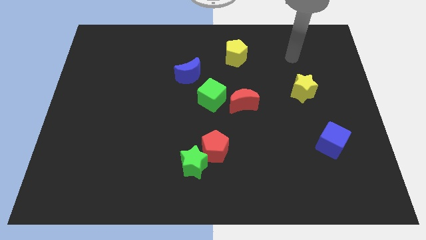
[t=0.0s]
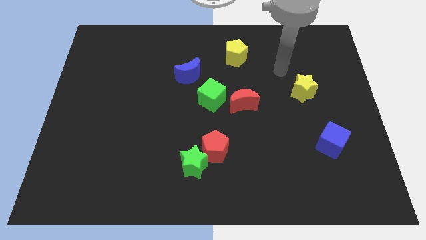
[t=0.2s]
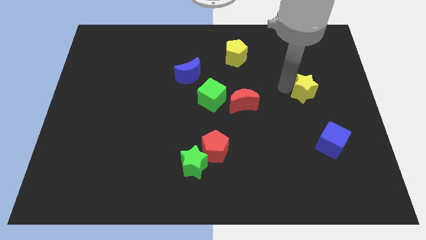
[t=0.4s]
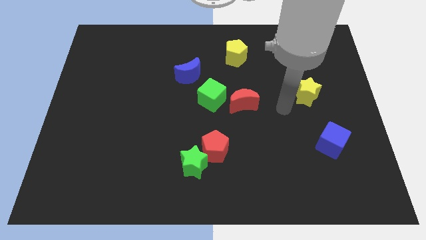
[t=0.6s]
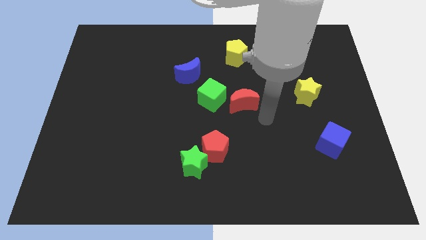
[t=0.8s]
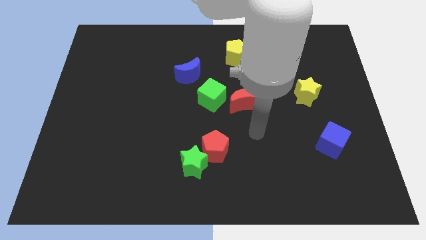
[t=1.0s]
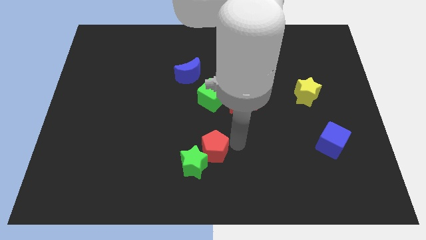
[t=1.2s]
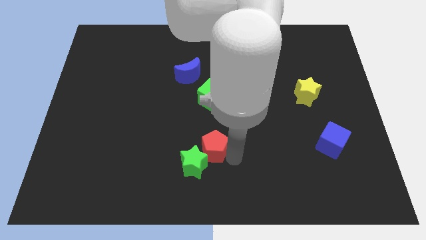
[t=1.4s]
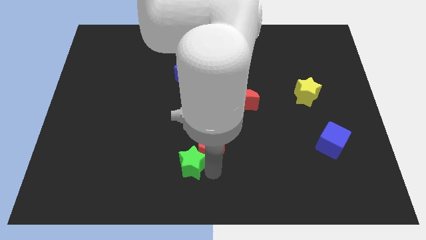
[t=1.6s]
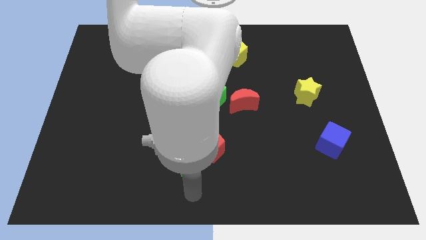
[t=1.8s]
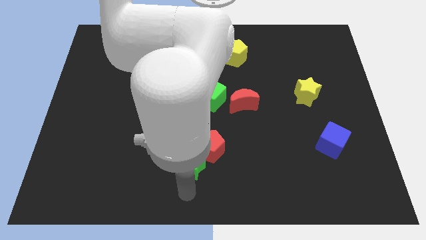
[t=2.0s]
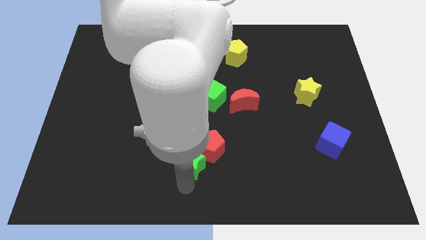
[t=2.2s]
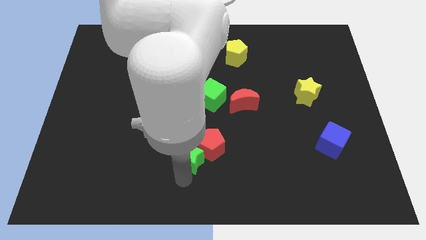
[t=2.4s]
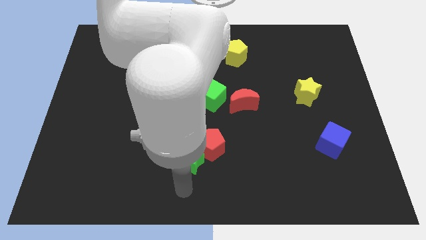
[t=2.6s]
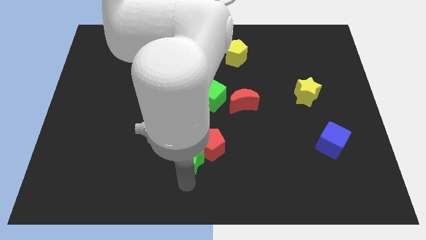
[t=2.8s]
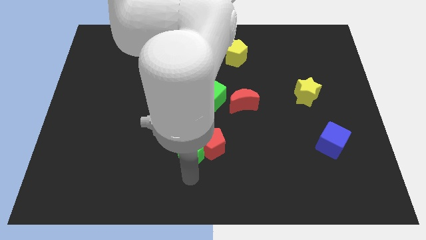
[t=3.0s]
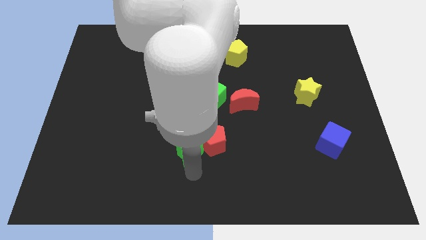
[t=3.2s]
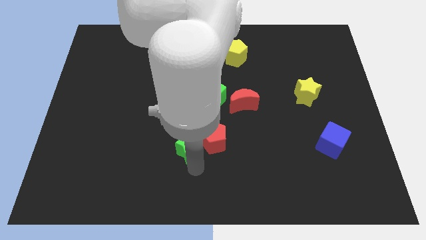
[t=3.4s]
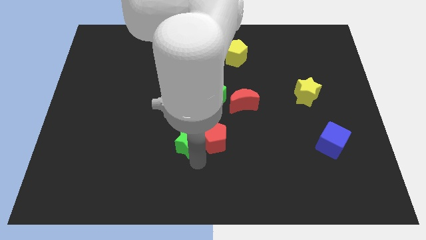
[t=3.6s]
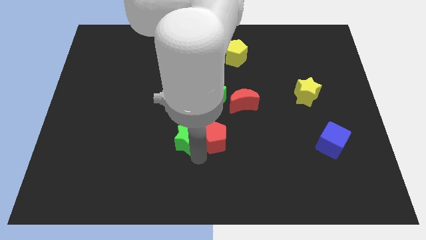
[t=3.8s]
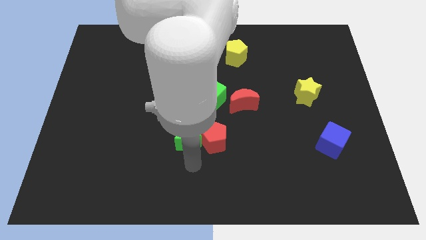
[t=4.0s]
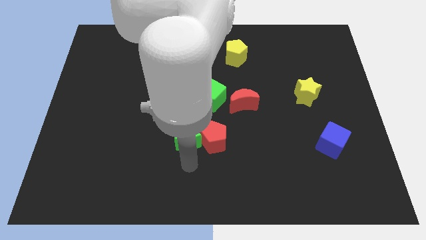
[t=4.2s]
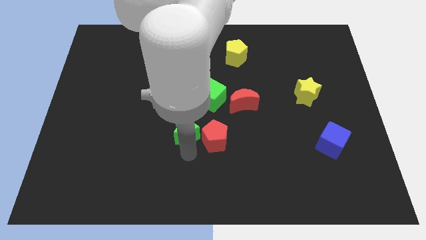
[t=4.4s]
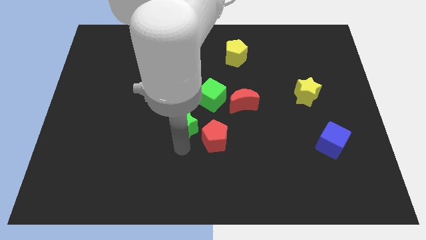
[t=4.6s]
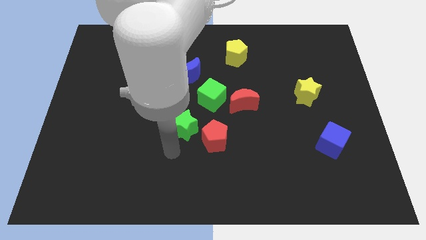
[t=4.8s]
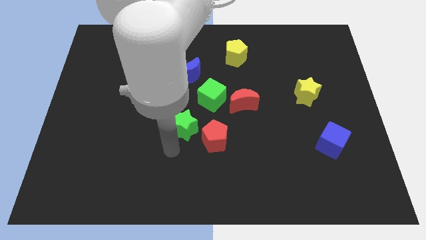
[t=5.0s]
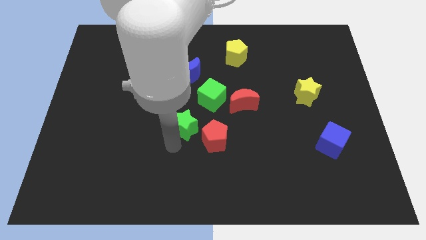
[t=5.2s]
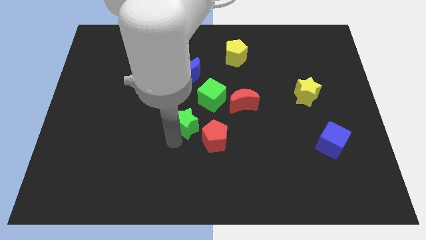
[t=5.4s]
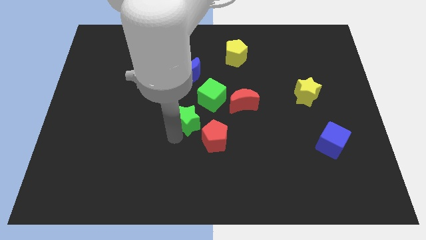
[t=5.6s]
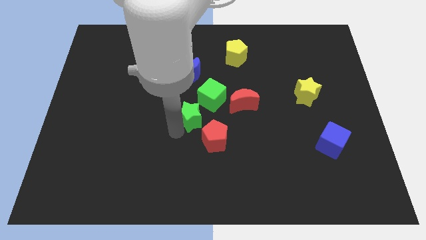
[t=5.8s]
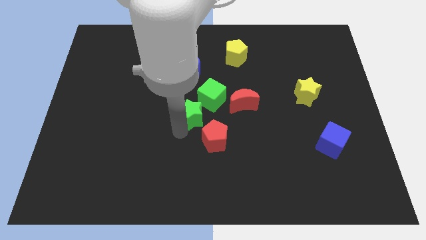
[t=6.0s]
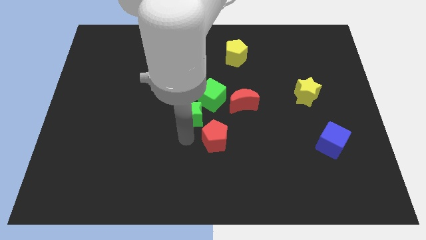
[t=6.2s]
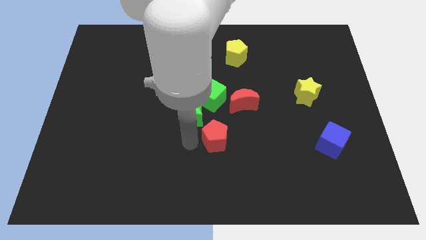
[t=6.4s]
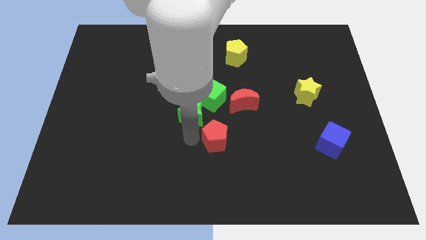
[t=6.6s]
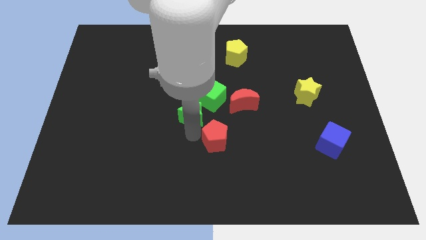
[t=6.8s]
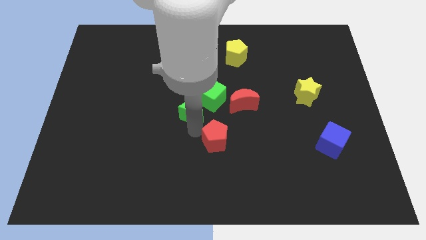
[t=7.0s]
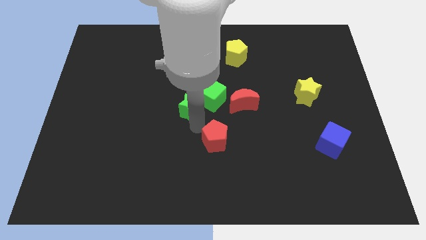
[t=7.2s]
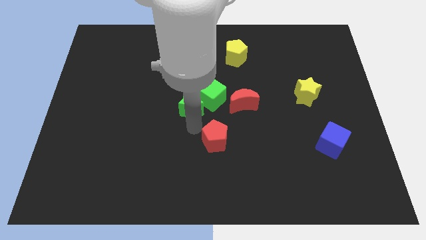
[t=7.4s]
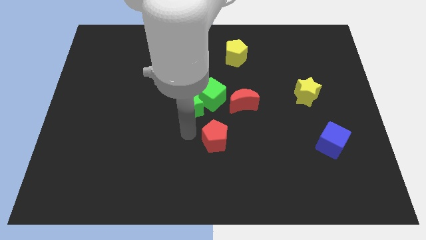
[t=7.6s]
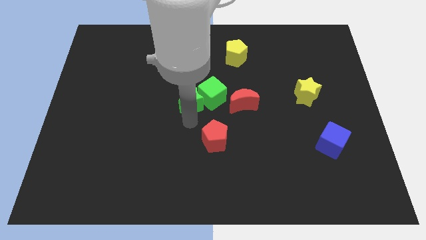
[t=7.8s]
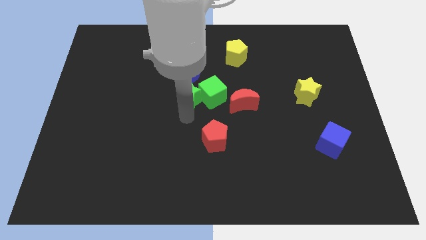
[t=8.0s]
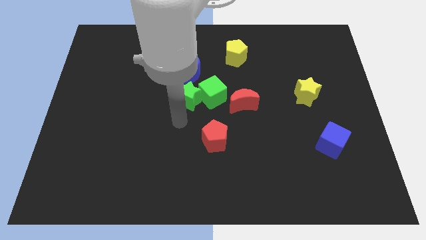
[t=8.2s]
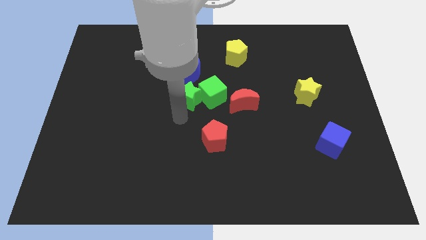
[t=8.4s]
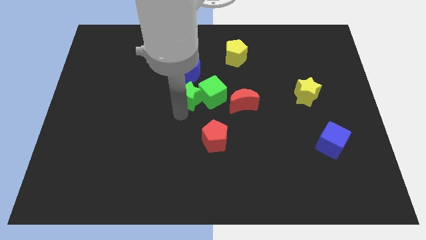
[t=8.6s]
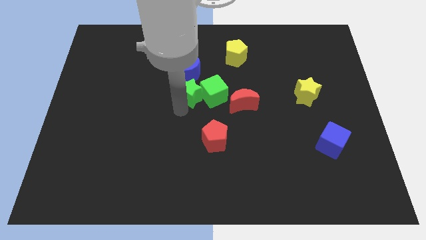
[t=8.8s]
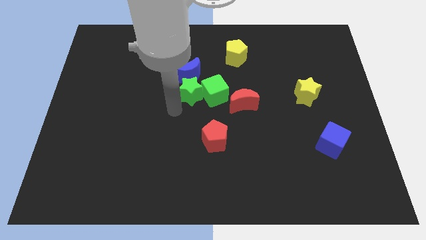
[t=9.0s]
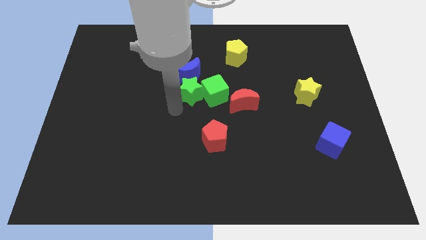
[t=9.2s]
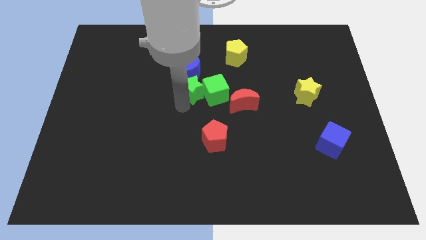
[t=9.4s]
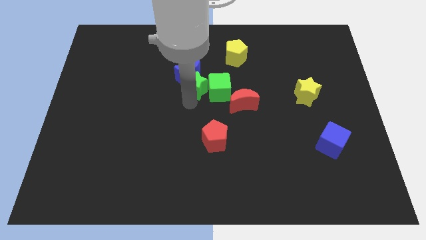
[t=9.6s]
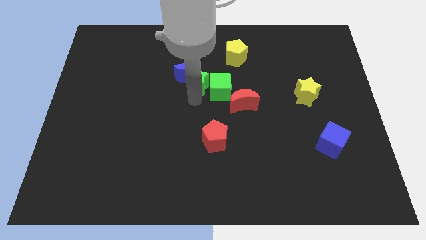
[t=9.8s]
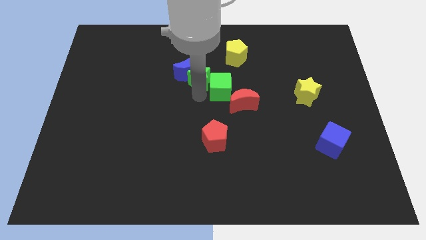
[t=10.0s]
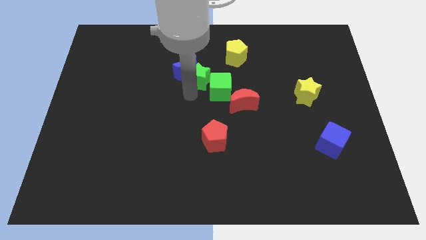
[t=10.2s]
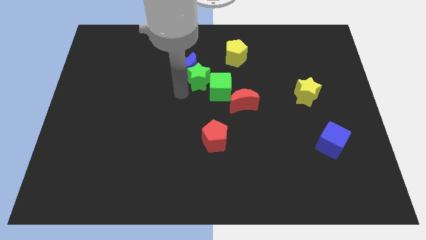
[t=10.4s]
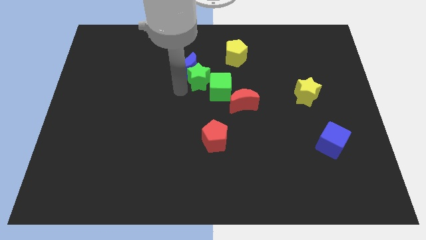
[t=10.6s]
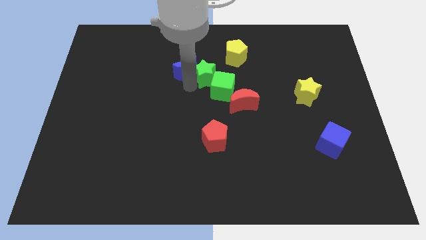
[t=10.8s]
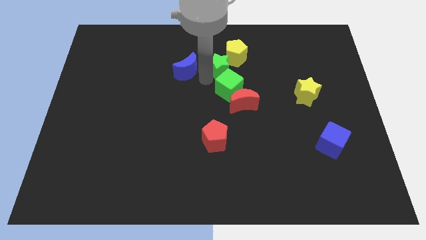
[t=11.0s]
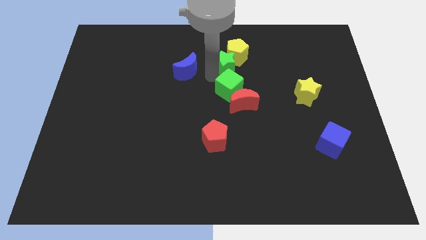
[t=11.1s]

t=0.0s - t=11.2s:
push the green star to the yellow pentagon

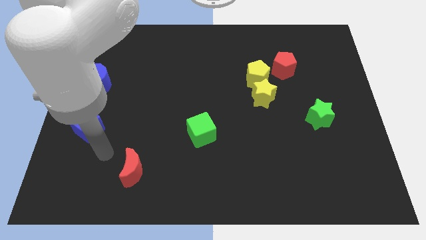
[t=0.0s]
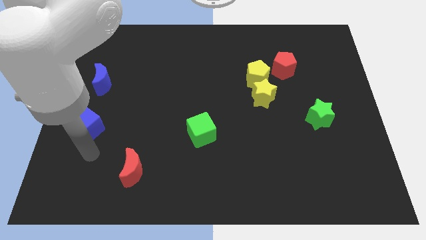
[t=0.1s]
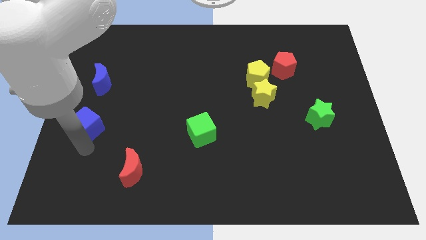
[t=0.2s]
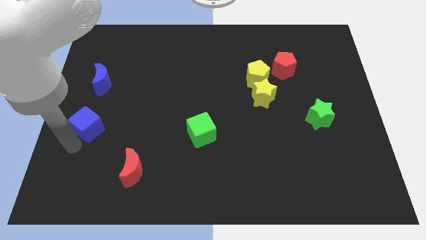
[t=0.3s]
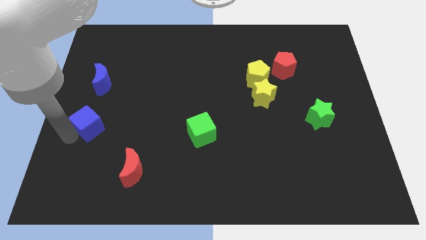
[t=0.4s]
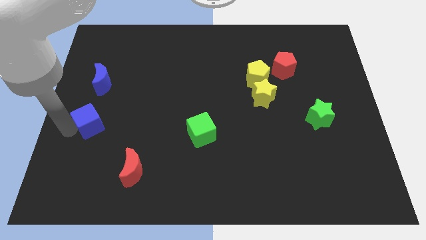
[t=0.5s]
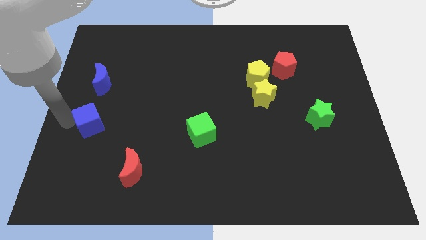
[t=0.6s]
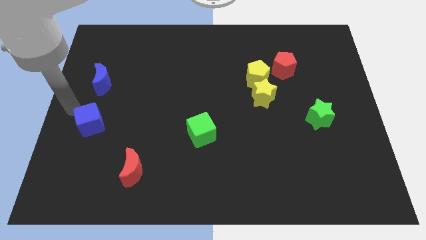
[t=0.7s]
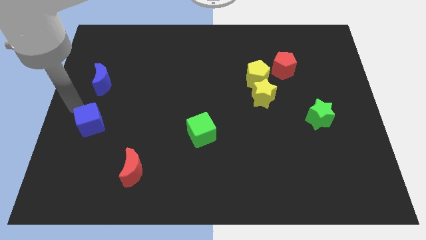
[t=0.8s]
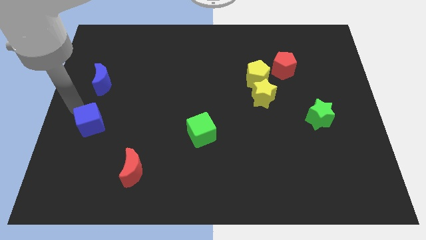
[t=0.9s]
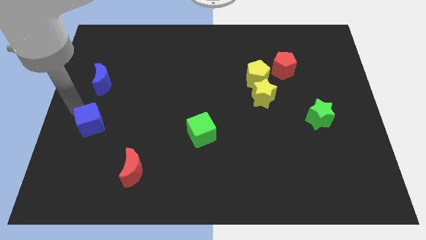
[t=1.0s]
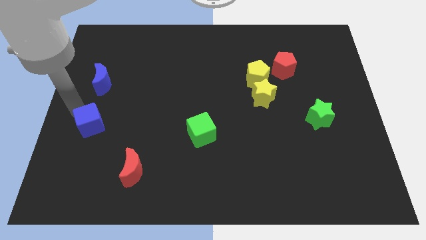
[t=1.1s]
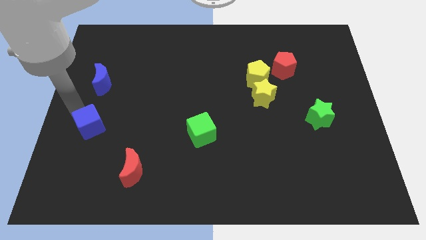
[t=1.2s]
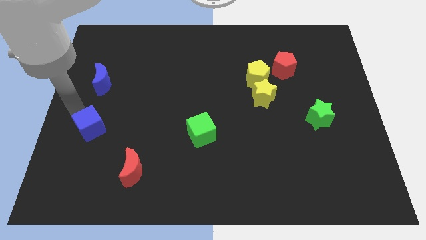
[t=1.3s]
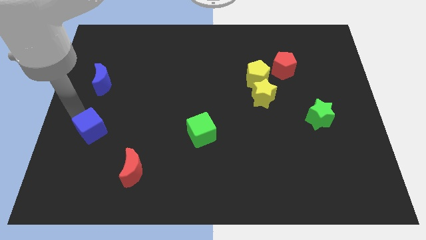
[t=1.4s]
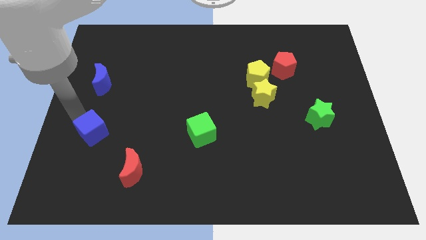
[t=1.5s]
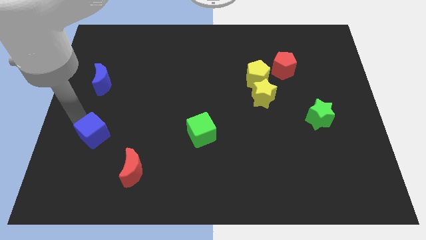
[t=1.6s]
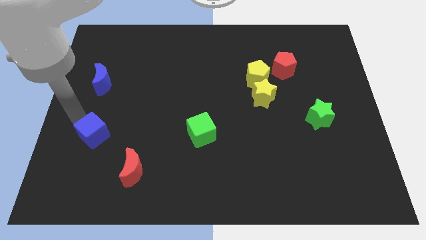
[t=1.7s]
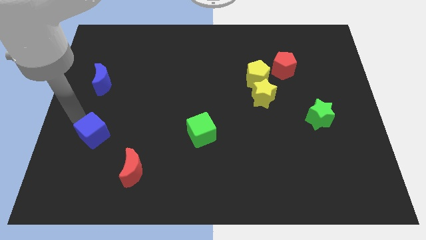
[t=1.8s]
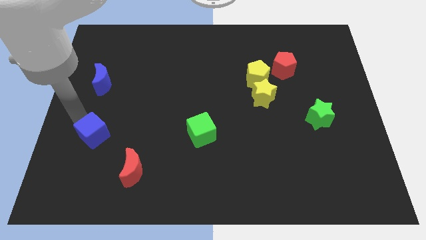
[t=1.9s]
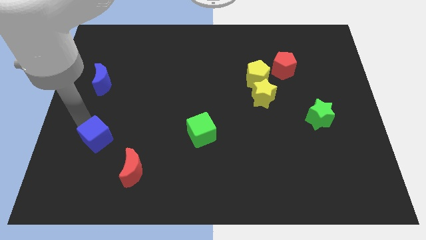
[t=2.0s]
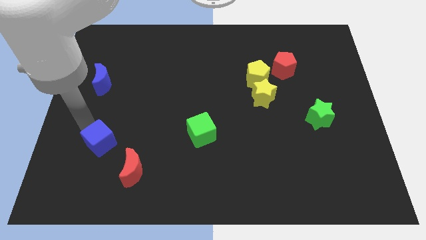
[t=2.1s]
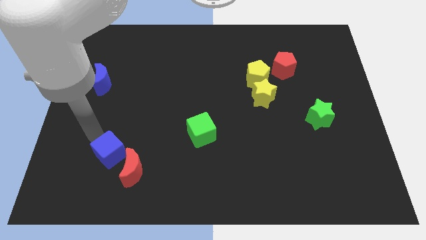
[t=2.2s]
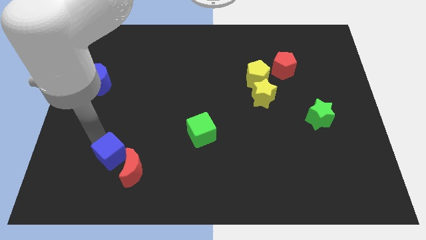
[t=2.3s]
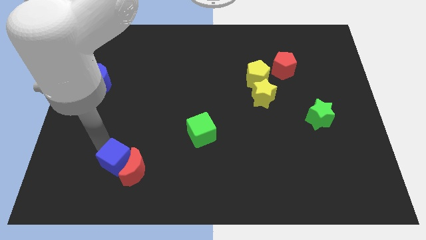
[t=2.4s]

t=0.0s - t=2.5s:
push the blue cube to the red moon
